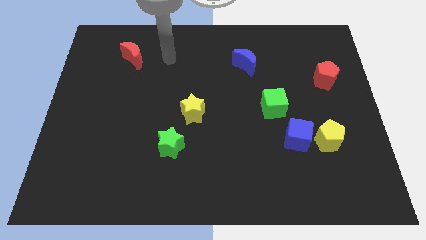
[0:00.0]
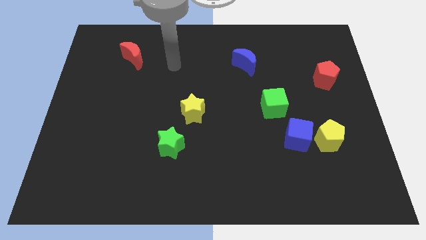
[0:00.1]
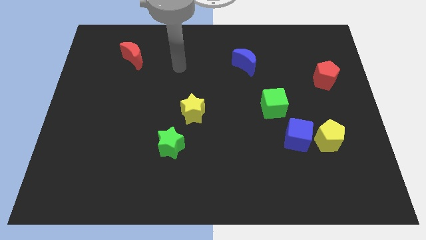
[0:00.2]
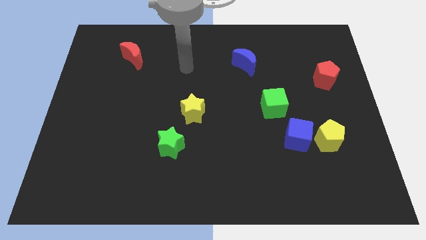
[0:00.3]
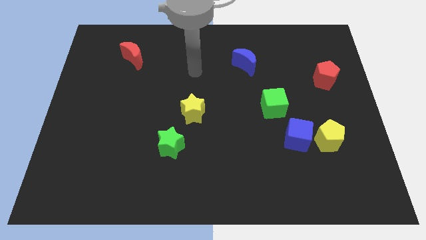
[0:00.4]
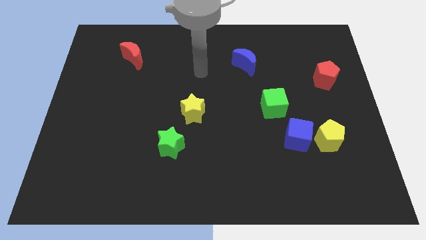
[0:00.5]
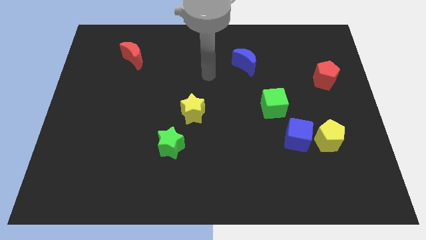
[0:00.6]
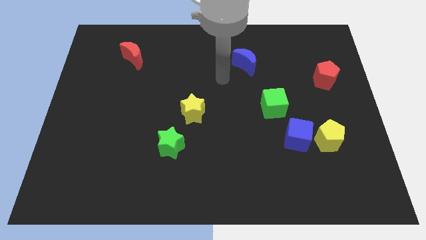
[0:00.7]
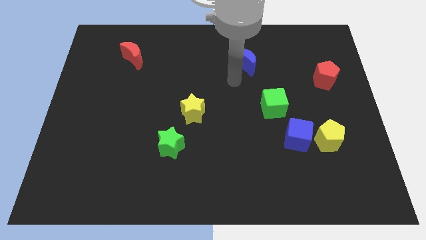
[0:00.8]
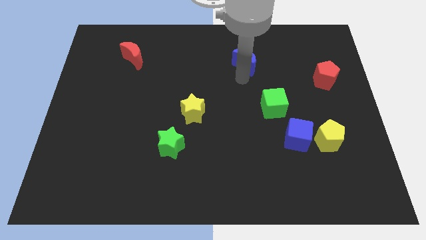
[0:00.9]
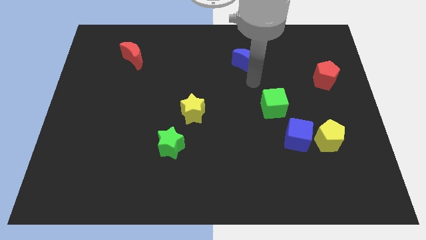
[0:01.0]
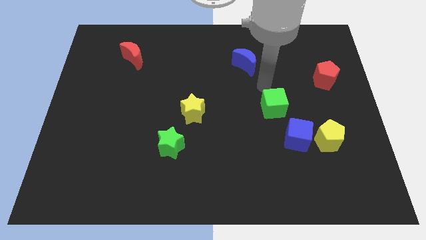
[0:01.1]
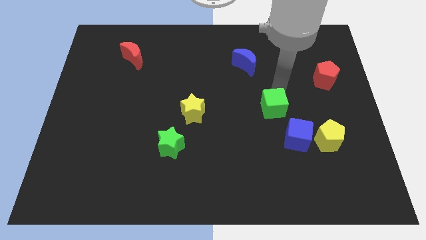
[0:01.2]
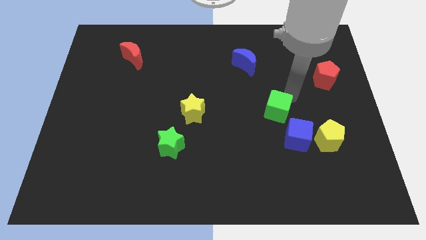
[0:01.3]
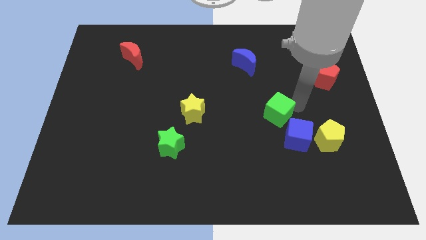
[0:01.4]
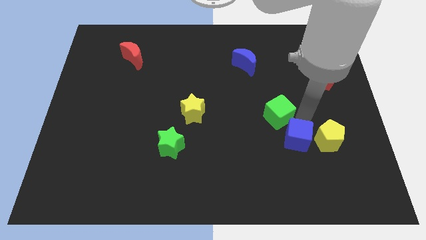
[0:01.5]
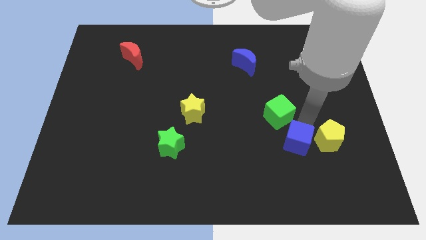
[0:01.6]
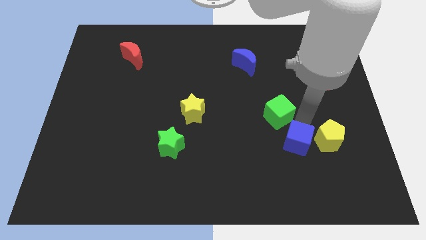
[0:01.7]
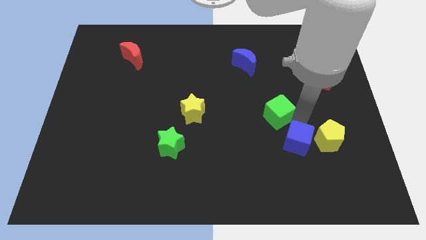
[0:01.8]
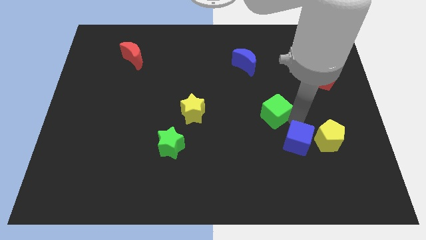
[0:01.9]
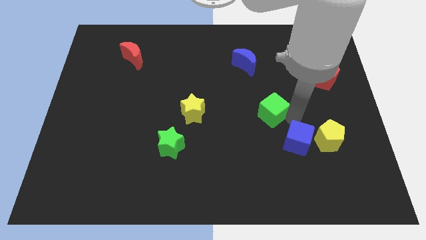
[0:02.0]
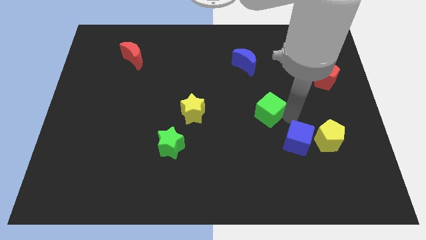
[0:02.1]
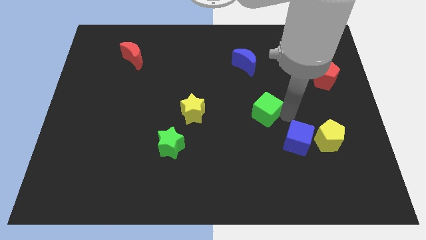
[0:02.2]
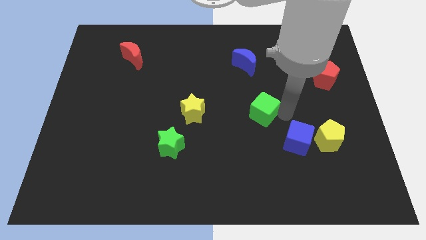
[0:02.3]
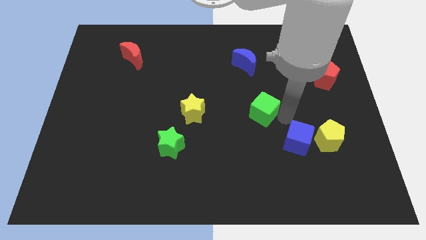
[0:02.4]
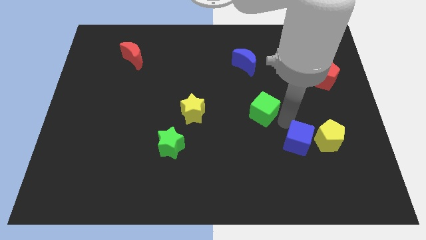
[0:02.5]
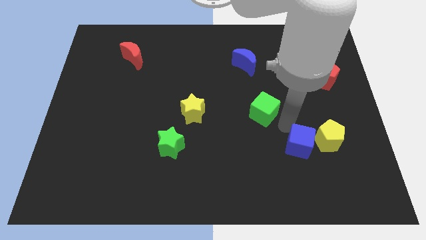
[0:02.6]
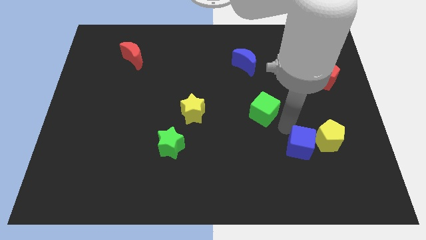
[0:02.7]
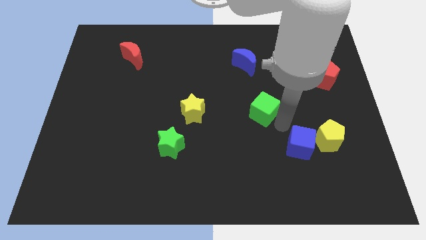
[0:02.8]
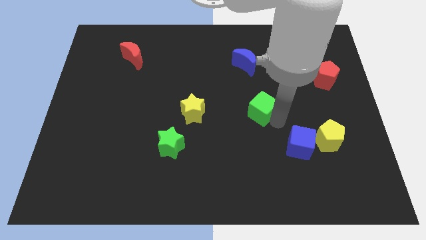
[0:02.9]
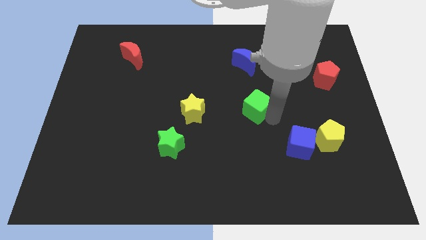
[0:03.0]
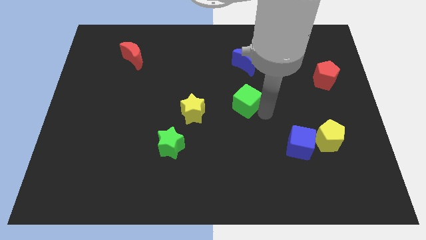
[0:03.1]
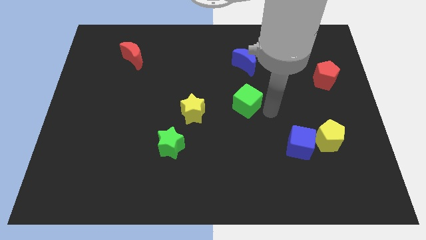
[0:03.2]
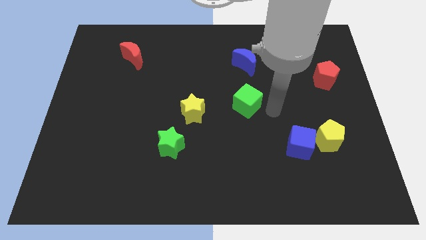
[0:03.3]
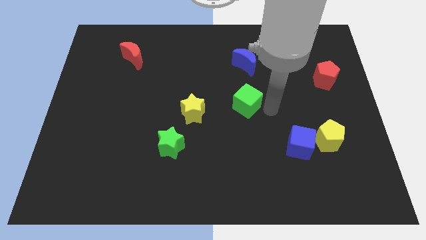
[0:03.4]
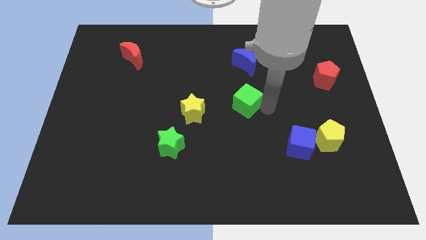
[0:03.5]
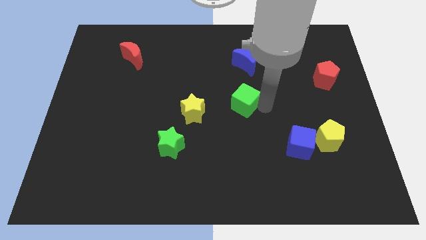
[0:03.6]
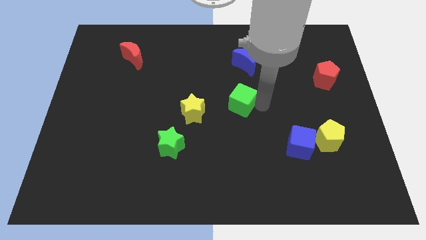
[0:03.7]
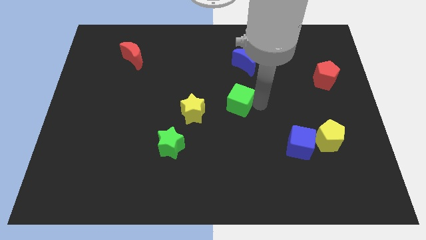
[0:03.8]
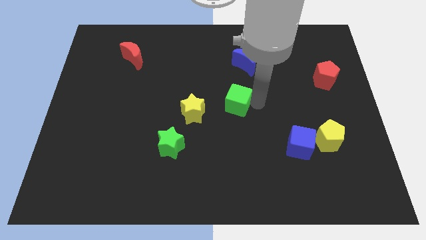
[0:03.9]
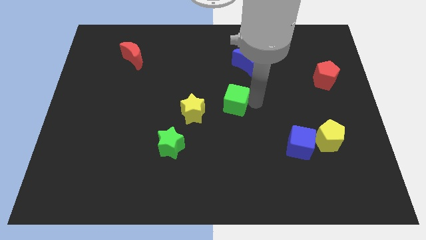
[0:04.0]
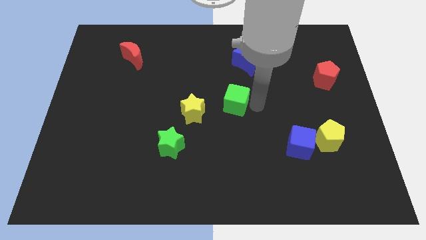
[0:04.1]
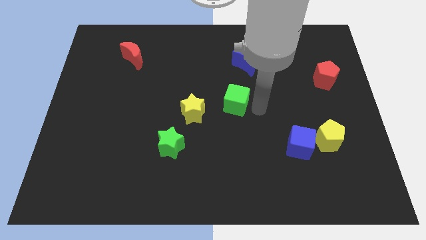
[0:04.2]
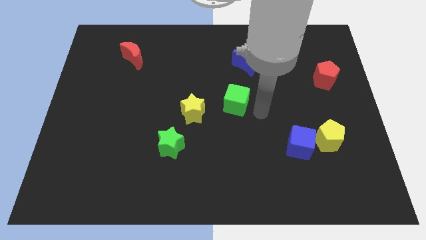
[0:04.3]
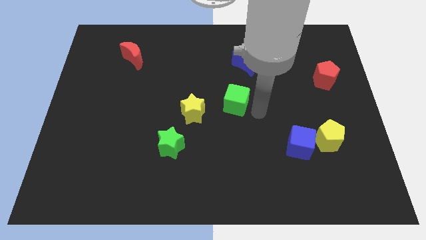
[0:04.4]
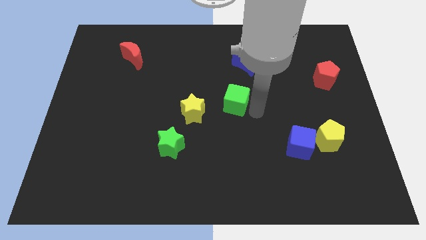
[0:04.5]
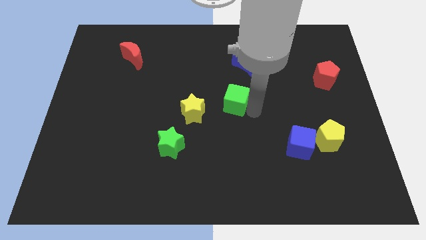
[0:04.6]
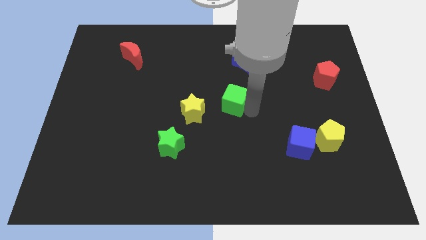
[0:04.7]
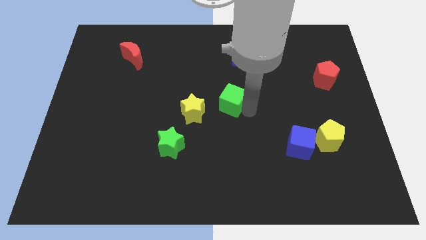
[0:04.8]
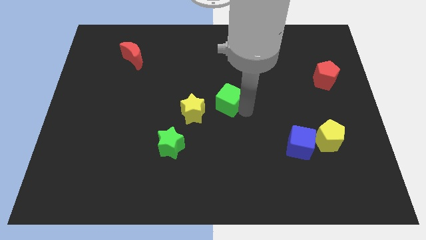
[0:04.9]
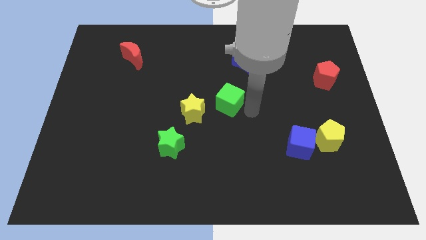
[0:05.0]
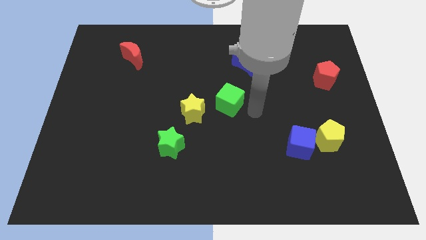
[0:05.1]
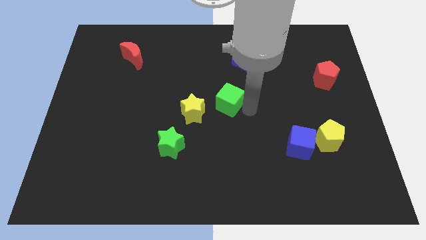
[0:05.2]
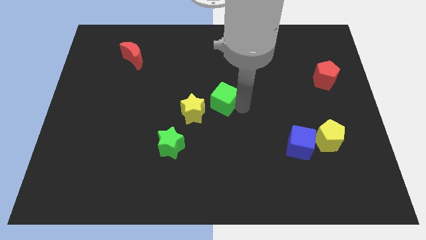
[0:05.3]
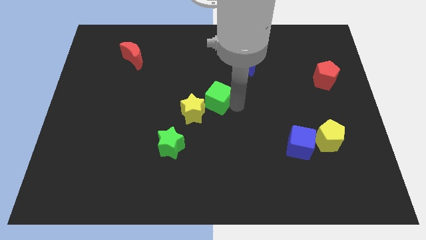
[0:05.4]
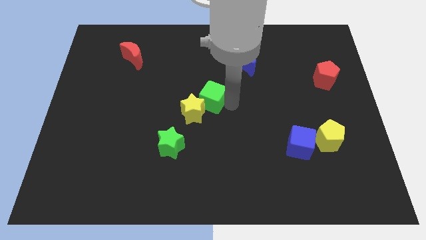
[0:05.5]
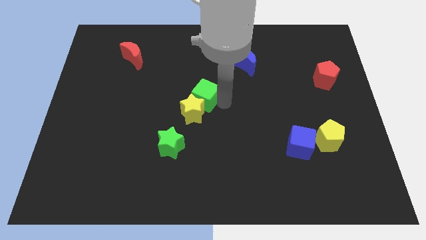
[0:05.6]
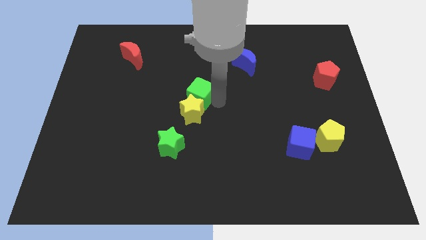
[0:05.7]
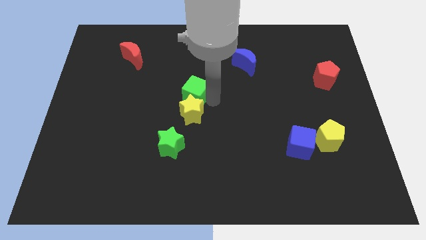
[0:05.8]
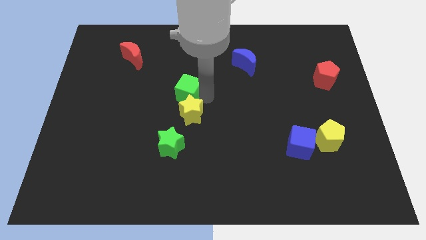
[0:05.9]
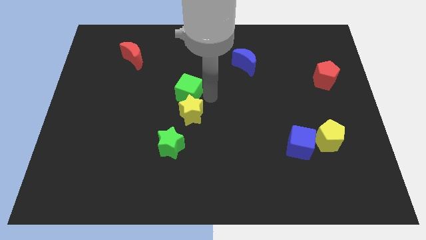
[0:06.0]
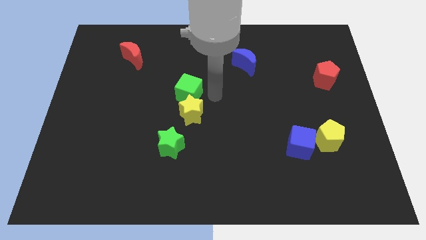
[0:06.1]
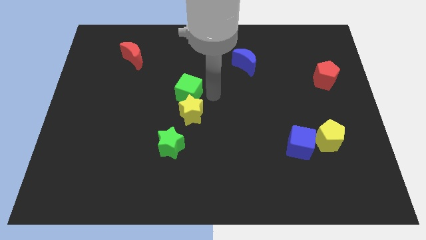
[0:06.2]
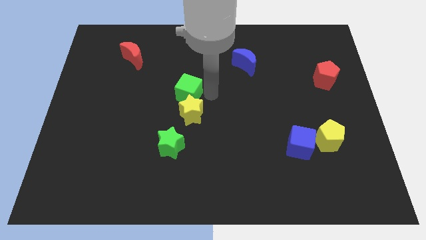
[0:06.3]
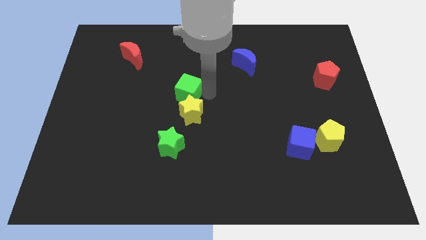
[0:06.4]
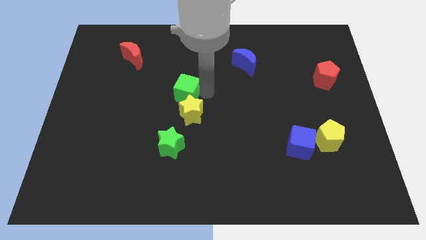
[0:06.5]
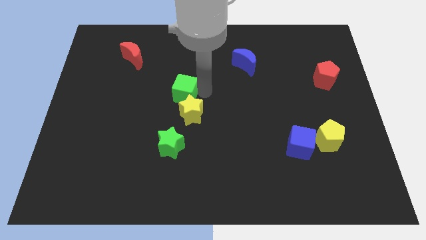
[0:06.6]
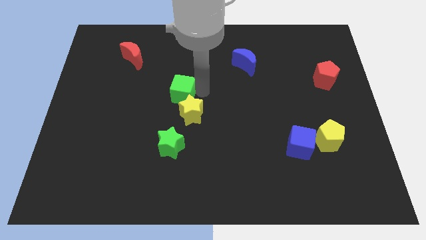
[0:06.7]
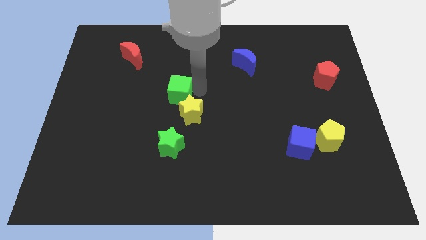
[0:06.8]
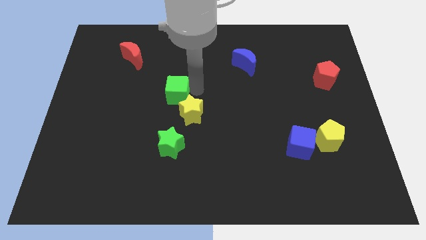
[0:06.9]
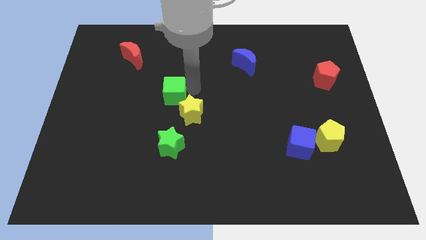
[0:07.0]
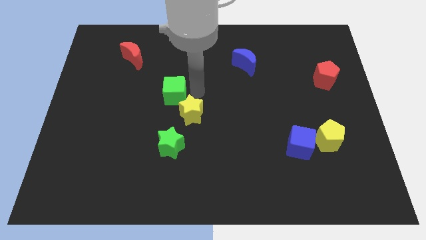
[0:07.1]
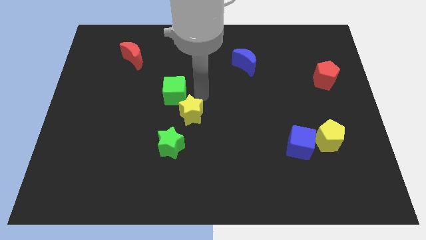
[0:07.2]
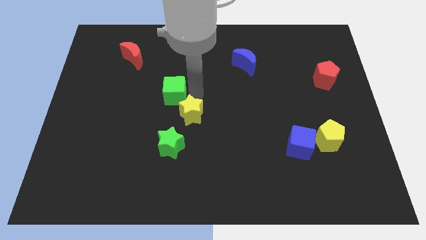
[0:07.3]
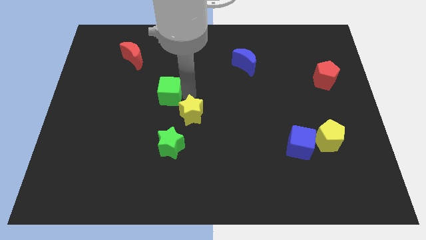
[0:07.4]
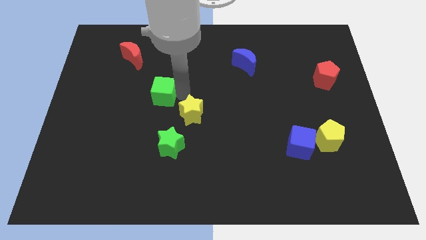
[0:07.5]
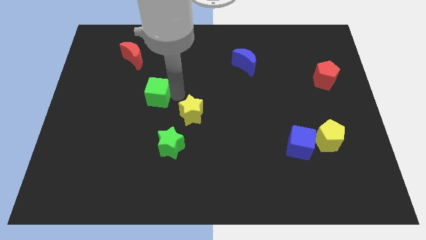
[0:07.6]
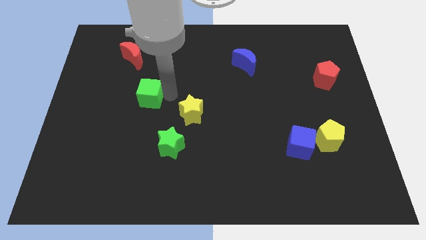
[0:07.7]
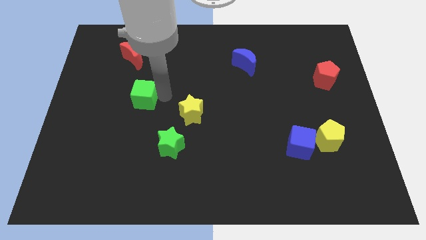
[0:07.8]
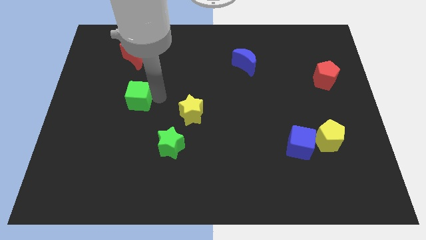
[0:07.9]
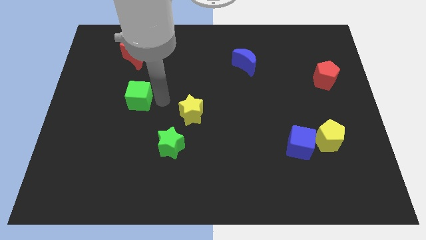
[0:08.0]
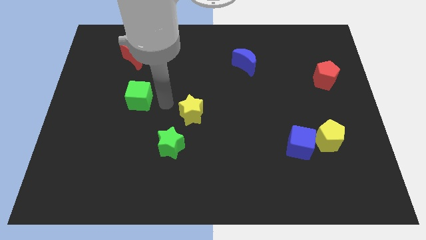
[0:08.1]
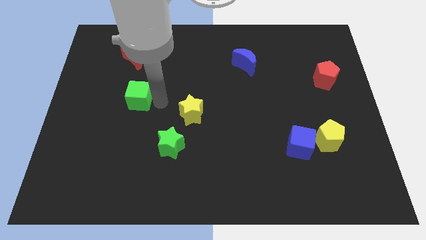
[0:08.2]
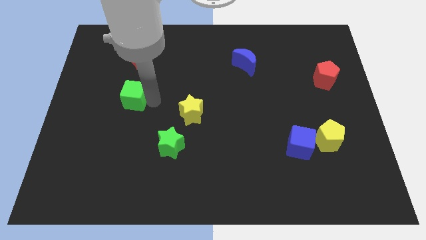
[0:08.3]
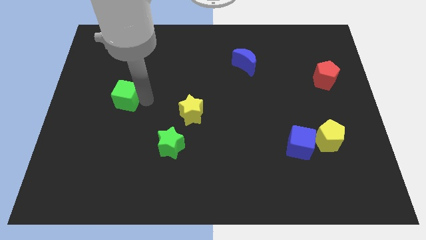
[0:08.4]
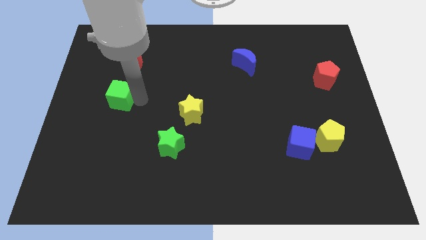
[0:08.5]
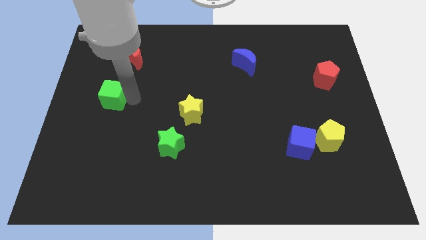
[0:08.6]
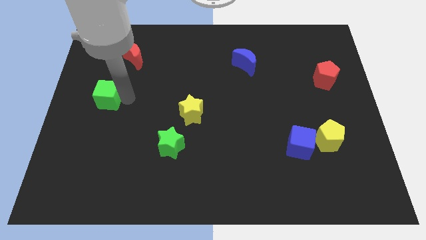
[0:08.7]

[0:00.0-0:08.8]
move the green cube to the left side of the board
